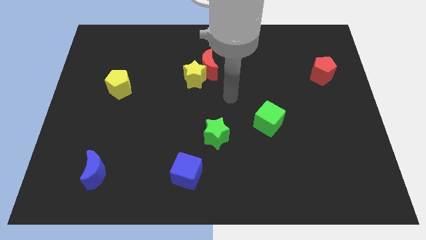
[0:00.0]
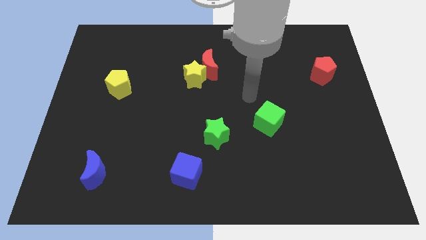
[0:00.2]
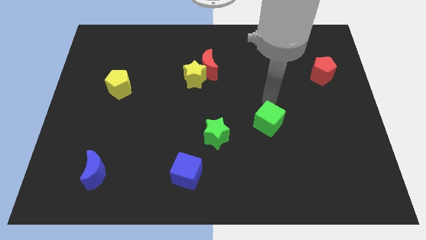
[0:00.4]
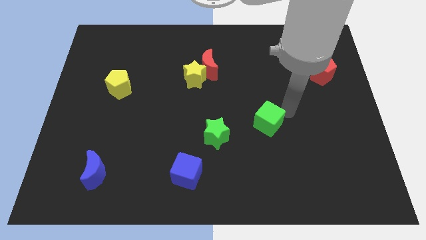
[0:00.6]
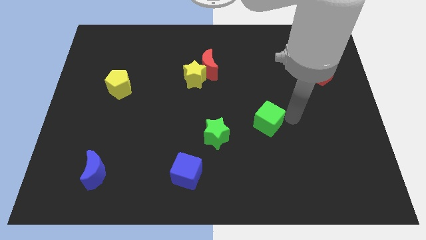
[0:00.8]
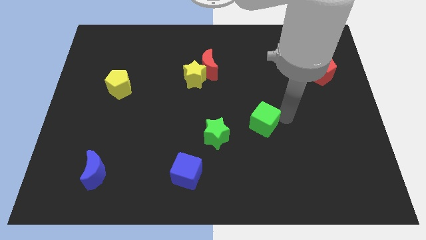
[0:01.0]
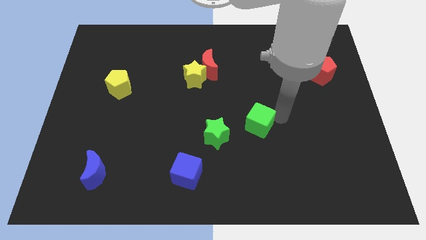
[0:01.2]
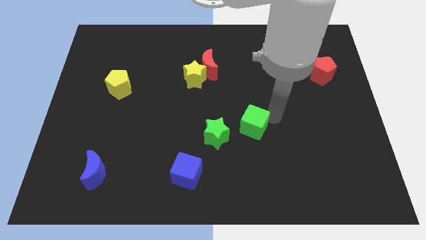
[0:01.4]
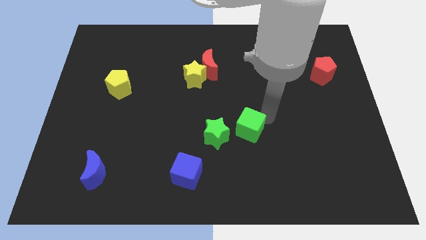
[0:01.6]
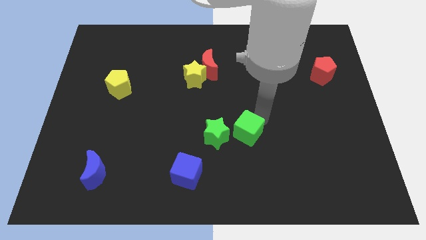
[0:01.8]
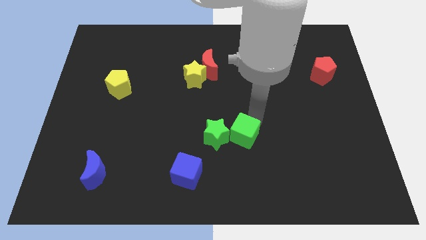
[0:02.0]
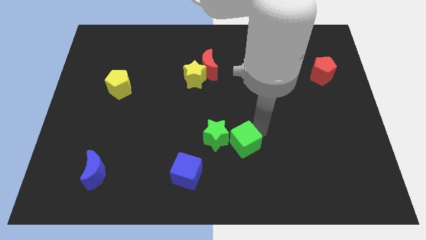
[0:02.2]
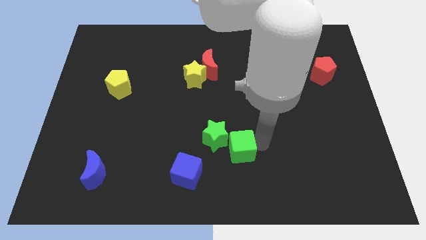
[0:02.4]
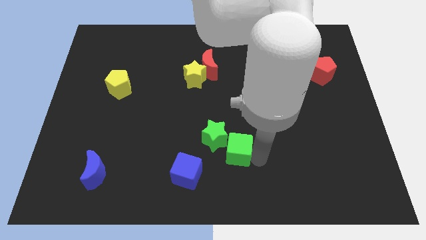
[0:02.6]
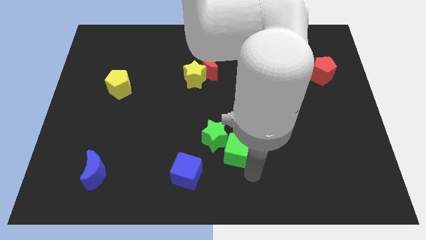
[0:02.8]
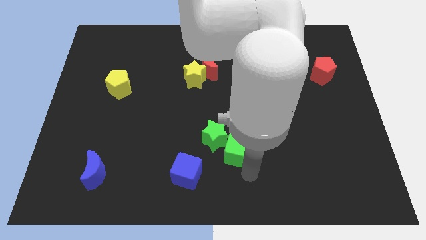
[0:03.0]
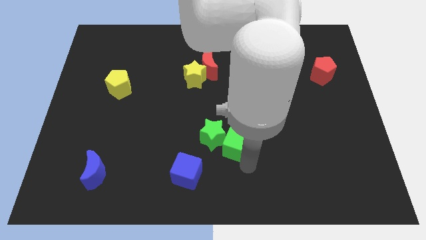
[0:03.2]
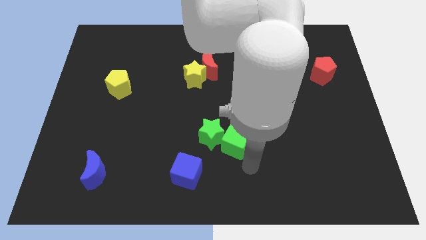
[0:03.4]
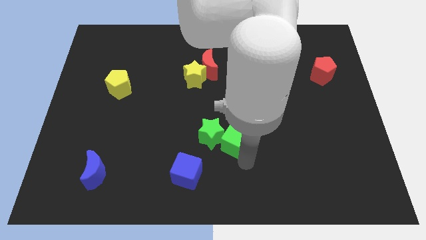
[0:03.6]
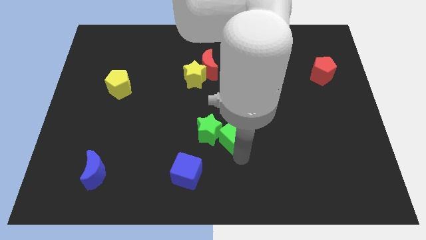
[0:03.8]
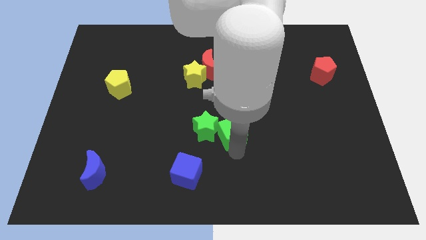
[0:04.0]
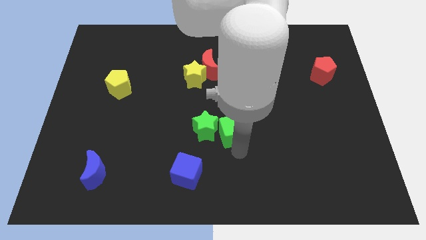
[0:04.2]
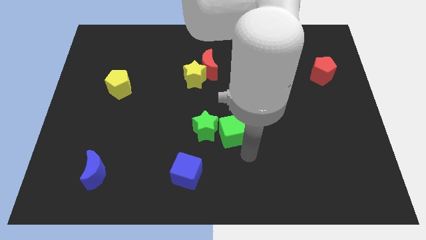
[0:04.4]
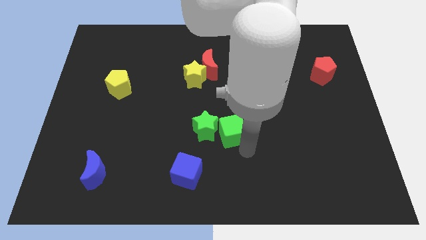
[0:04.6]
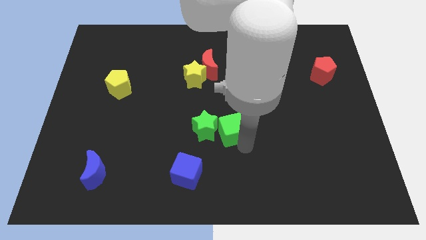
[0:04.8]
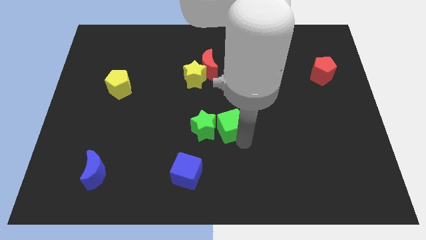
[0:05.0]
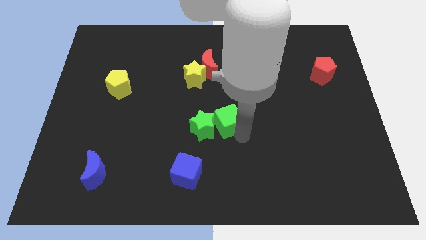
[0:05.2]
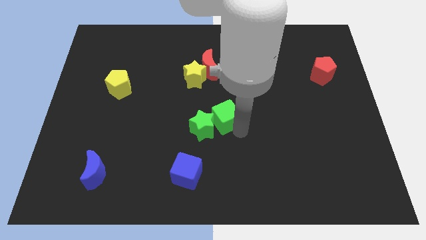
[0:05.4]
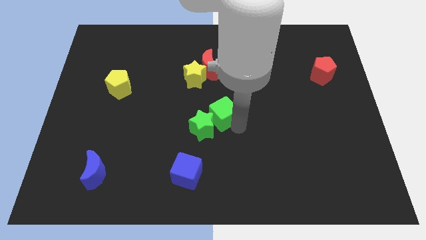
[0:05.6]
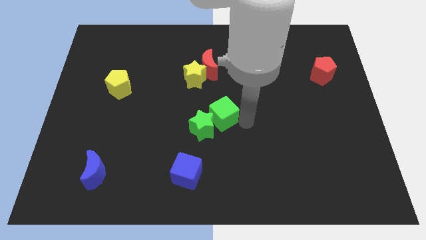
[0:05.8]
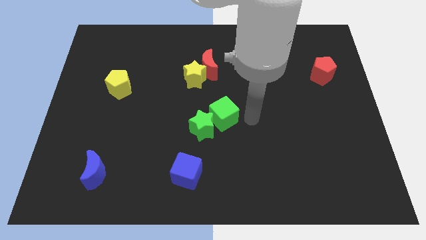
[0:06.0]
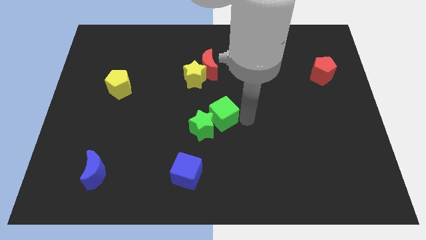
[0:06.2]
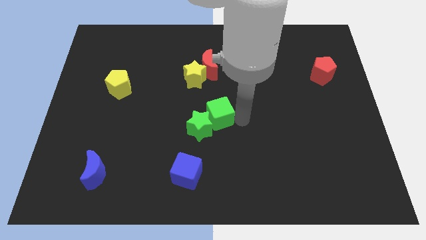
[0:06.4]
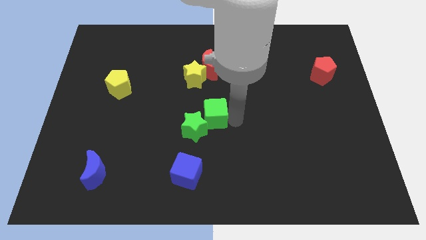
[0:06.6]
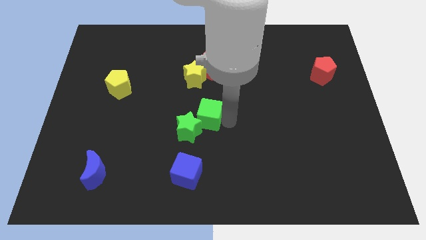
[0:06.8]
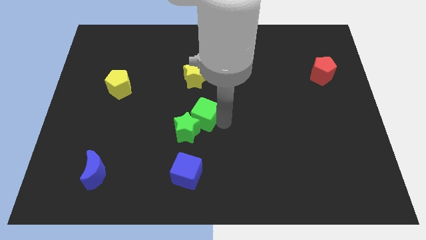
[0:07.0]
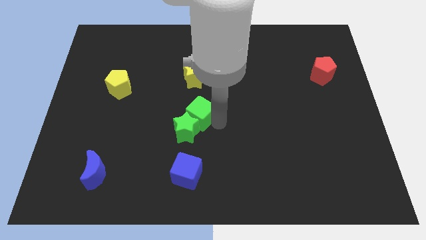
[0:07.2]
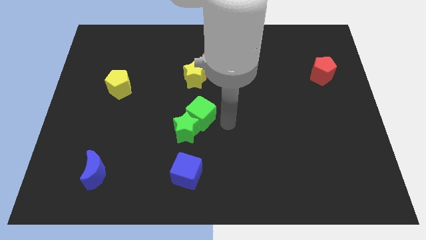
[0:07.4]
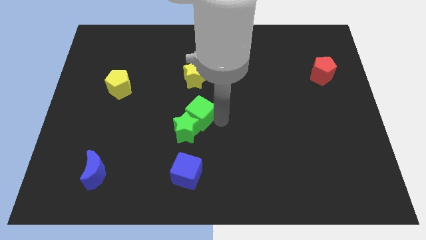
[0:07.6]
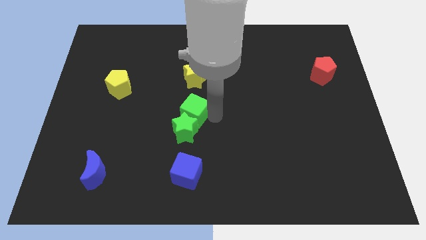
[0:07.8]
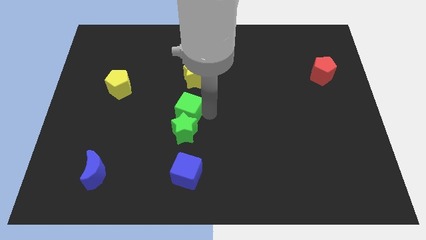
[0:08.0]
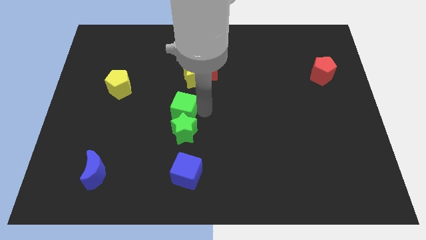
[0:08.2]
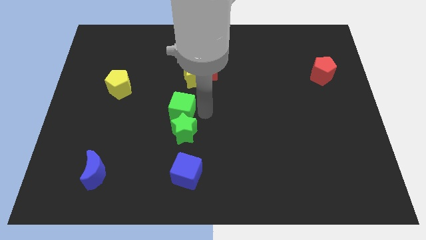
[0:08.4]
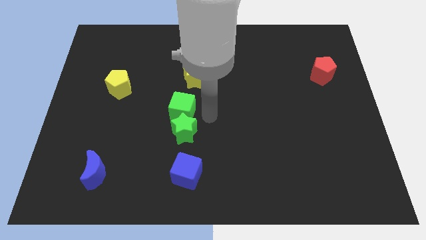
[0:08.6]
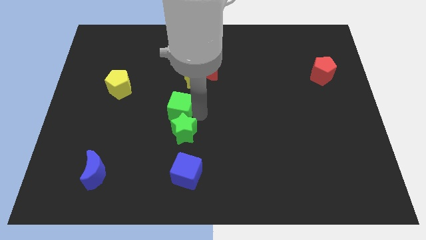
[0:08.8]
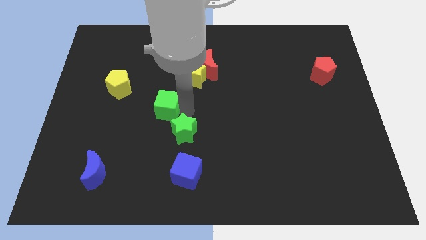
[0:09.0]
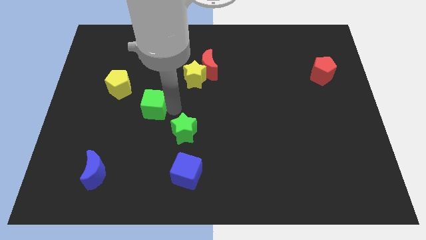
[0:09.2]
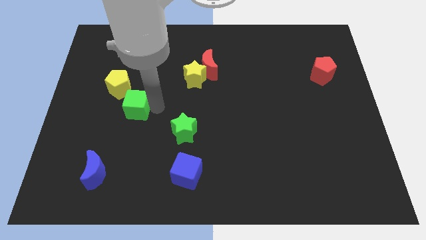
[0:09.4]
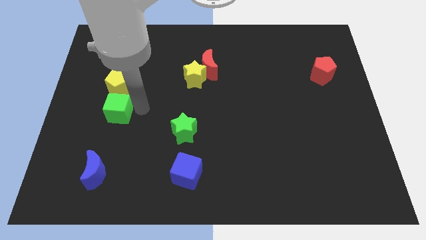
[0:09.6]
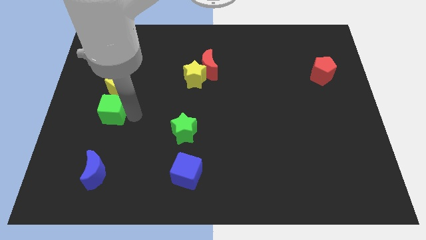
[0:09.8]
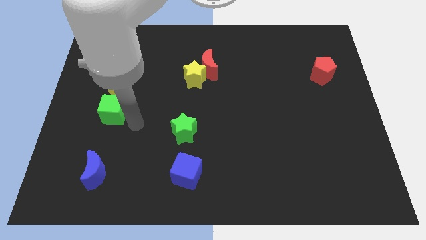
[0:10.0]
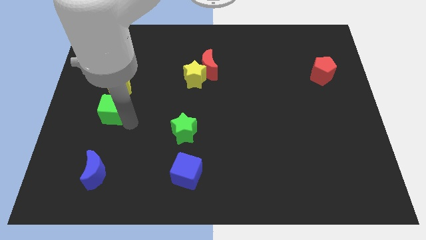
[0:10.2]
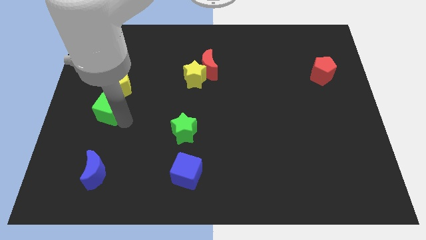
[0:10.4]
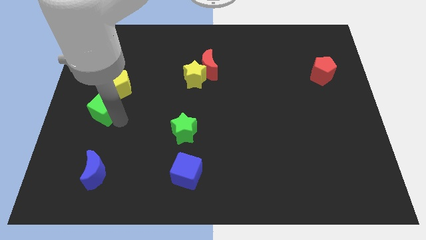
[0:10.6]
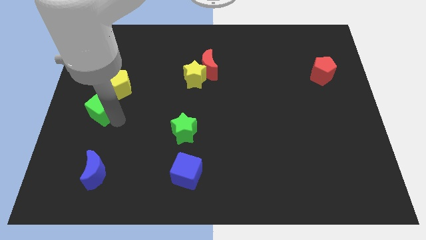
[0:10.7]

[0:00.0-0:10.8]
move the green cube to the left side
